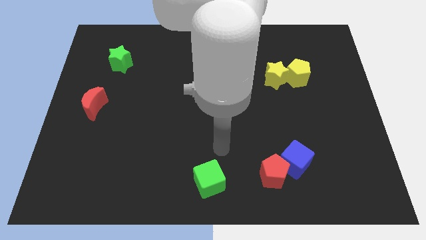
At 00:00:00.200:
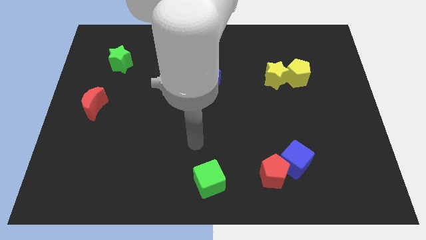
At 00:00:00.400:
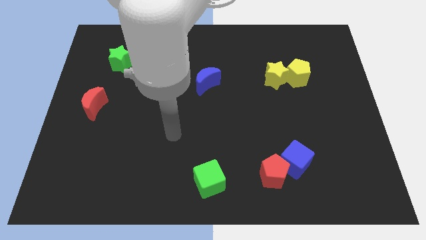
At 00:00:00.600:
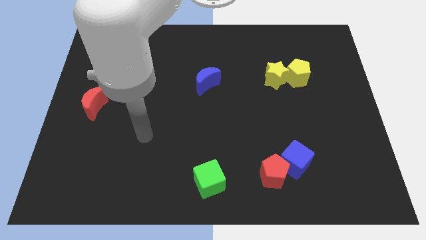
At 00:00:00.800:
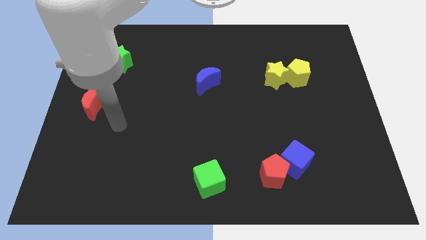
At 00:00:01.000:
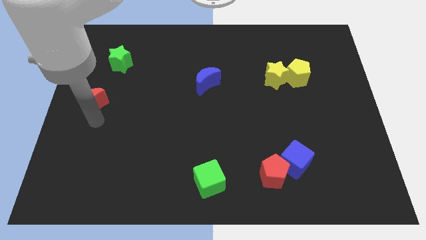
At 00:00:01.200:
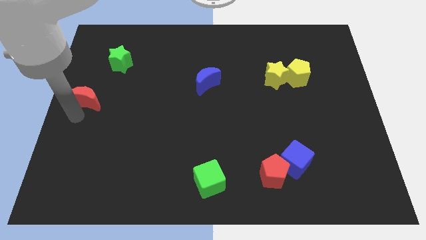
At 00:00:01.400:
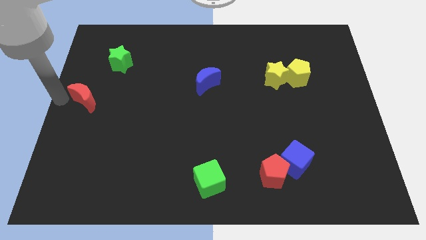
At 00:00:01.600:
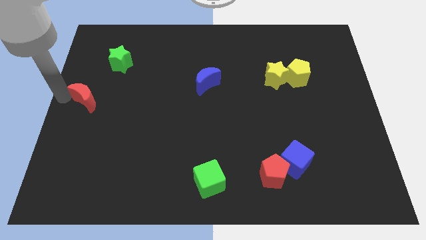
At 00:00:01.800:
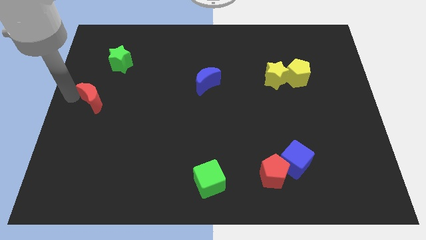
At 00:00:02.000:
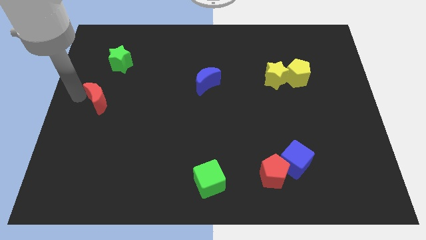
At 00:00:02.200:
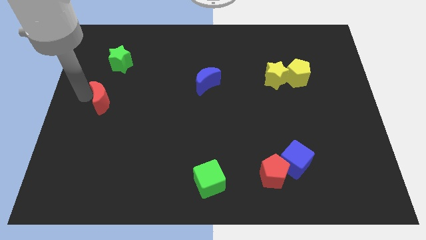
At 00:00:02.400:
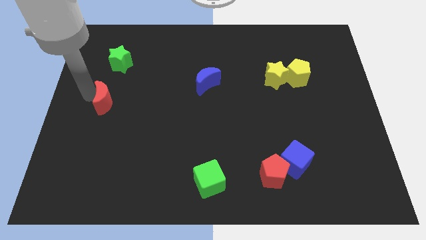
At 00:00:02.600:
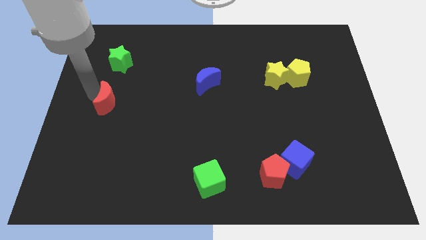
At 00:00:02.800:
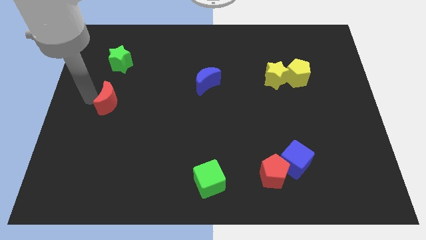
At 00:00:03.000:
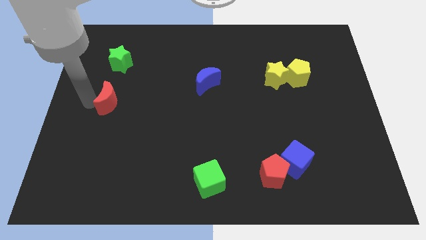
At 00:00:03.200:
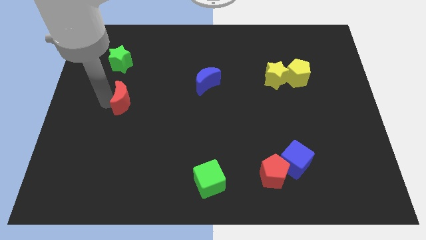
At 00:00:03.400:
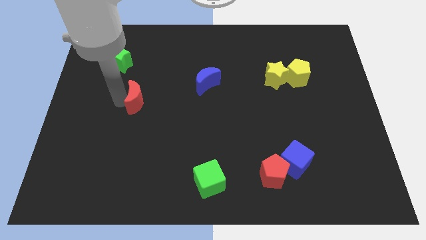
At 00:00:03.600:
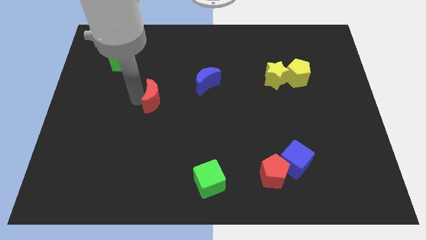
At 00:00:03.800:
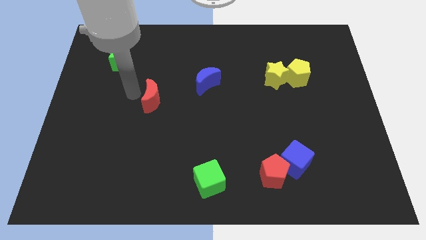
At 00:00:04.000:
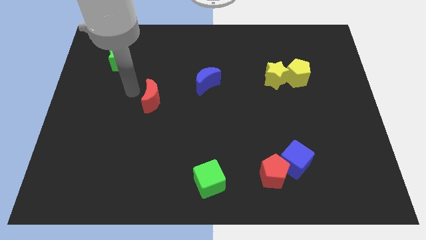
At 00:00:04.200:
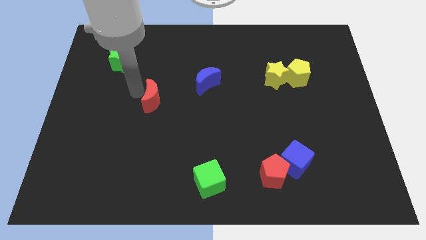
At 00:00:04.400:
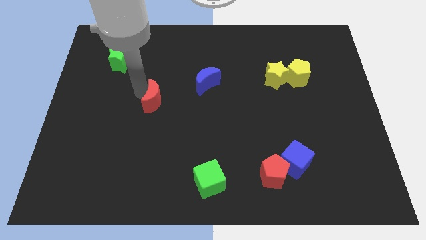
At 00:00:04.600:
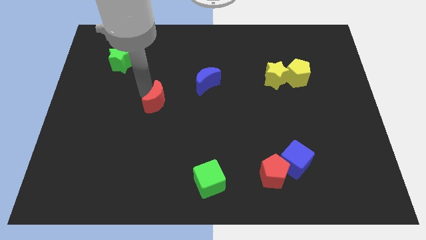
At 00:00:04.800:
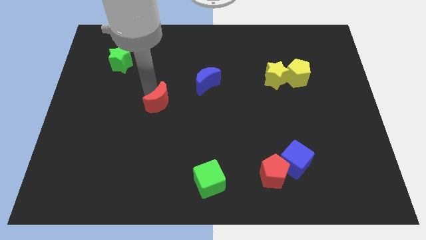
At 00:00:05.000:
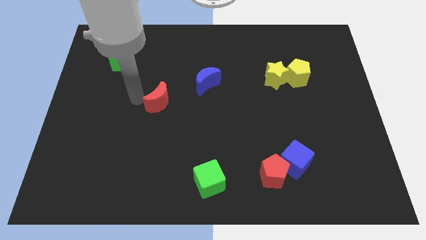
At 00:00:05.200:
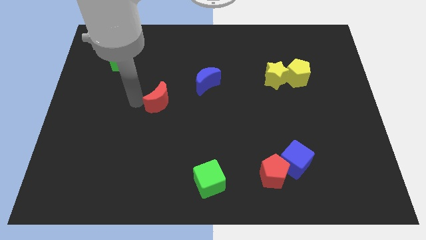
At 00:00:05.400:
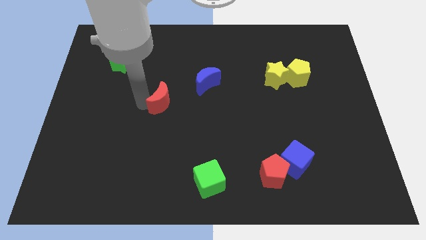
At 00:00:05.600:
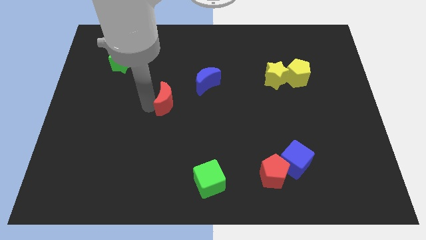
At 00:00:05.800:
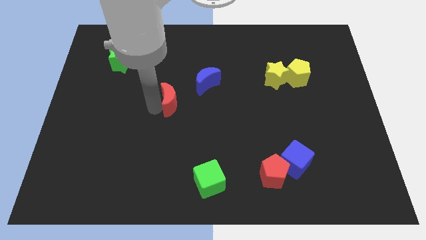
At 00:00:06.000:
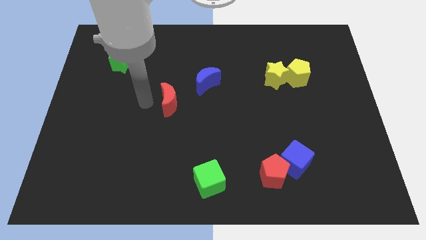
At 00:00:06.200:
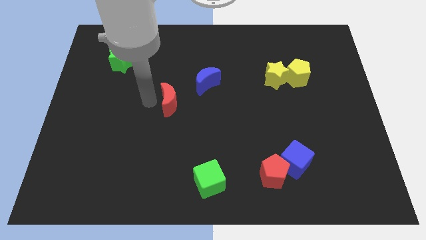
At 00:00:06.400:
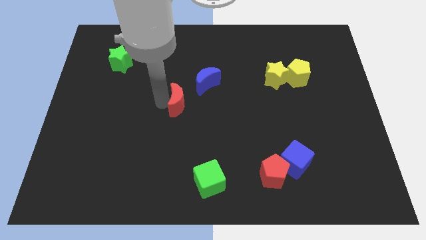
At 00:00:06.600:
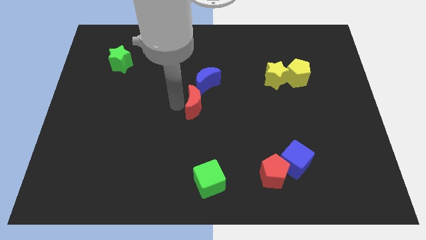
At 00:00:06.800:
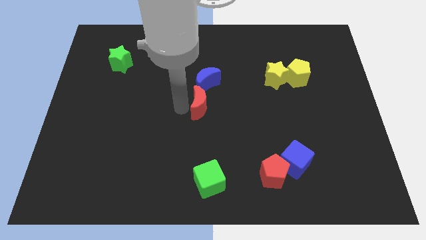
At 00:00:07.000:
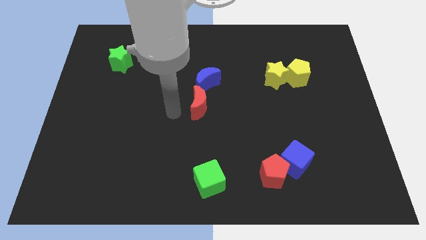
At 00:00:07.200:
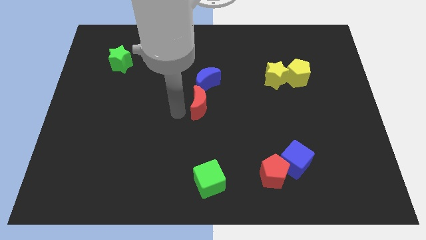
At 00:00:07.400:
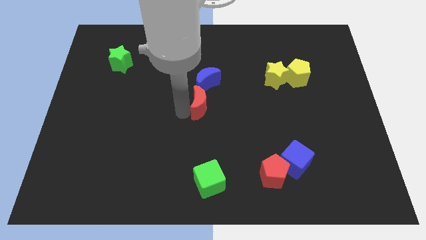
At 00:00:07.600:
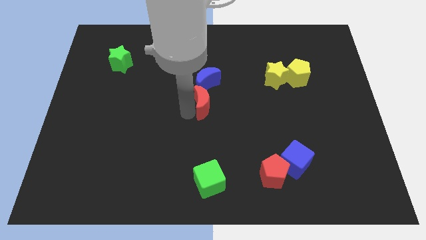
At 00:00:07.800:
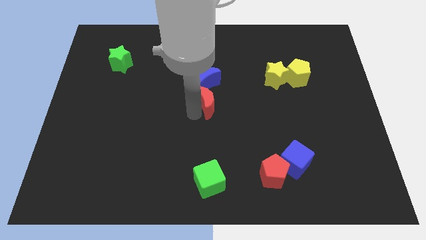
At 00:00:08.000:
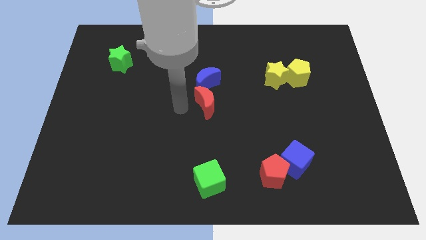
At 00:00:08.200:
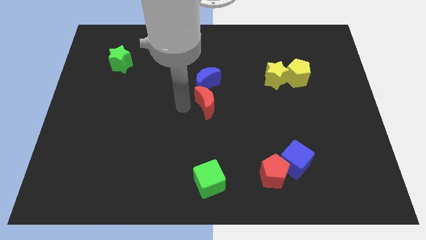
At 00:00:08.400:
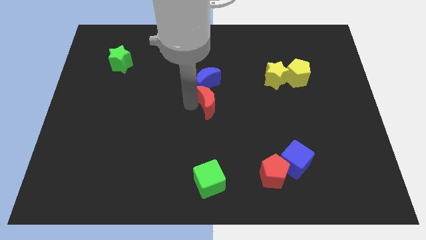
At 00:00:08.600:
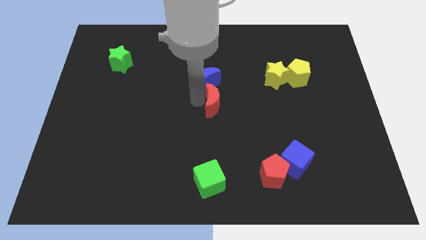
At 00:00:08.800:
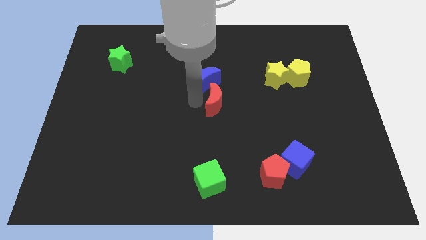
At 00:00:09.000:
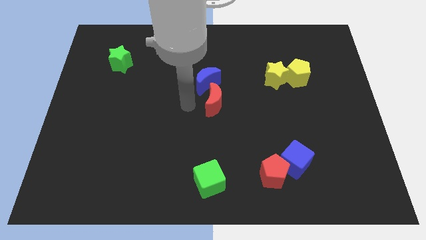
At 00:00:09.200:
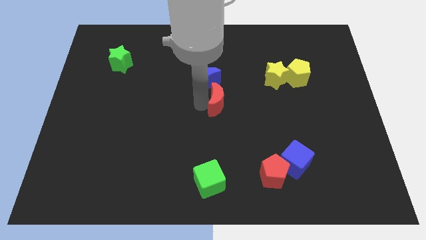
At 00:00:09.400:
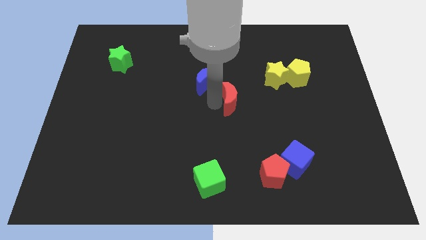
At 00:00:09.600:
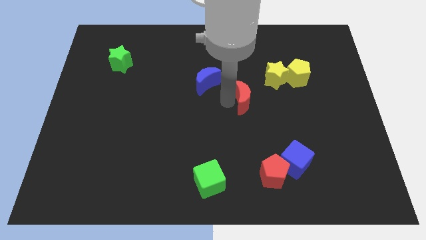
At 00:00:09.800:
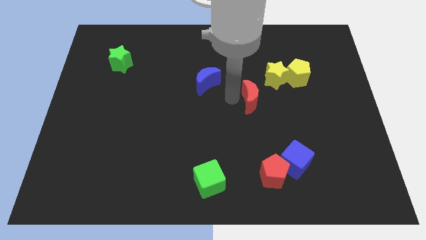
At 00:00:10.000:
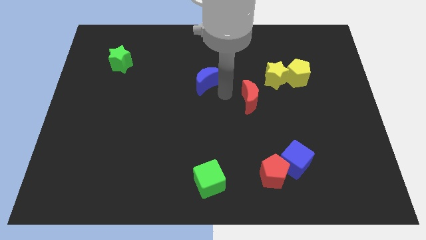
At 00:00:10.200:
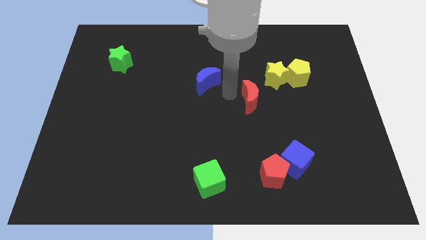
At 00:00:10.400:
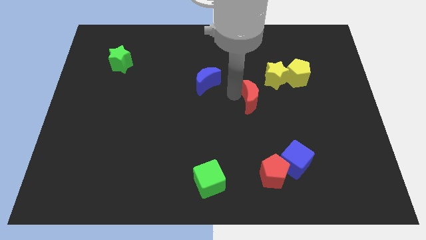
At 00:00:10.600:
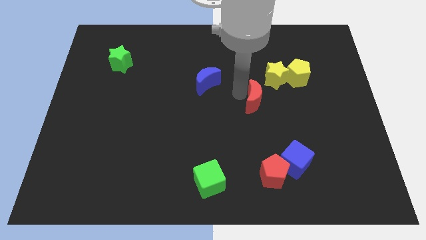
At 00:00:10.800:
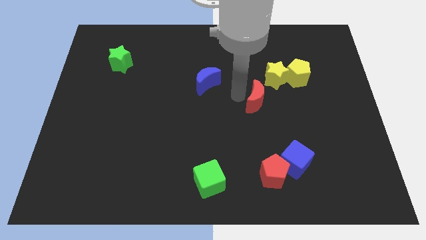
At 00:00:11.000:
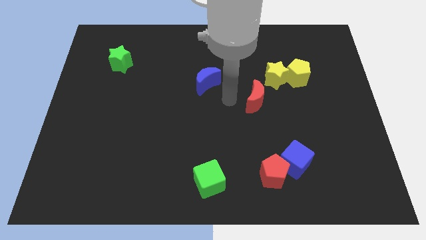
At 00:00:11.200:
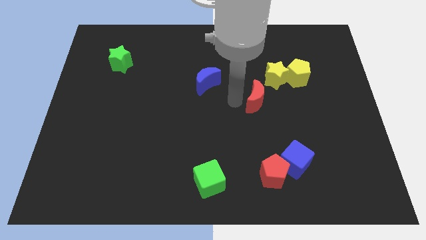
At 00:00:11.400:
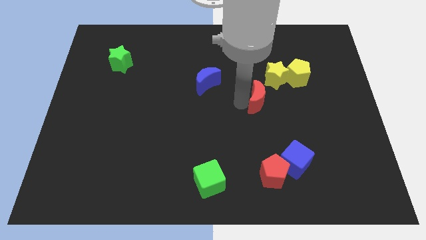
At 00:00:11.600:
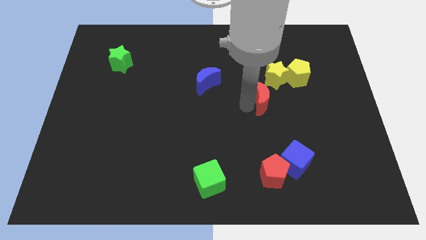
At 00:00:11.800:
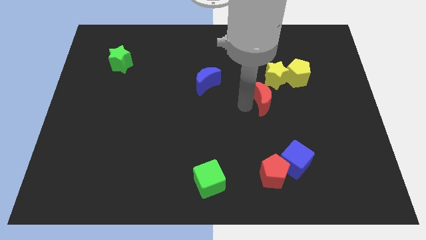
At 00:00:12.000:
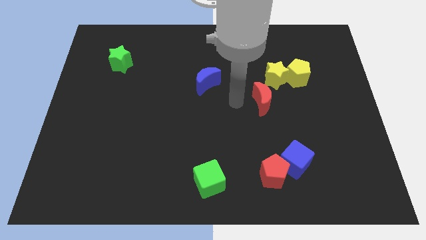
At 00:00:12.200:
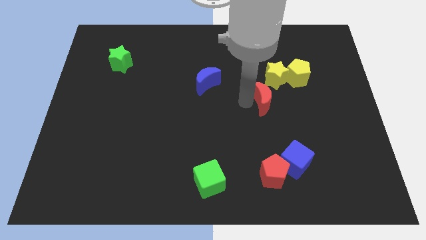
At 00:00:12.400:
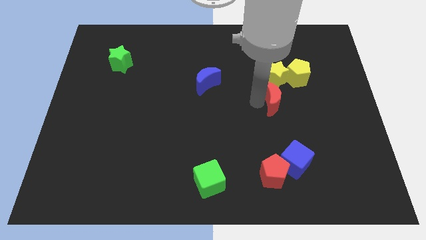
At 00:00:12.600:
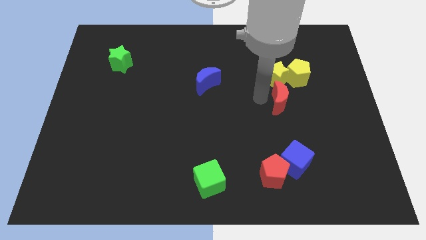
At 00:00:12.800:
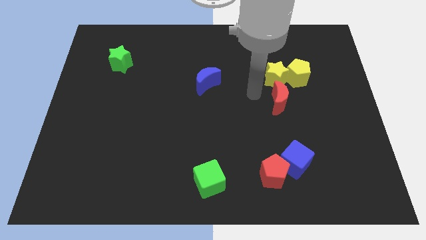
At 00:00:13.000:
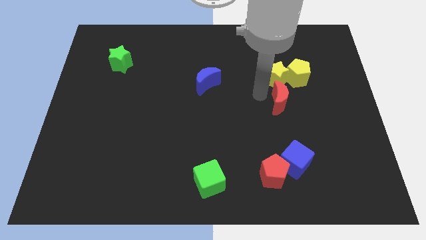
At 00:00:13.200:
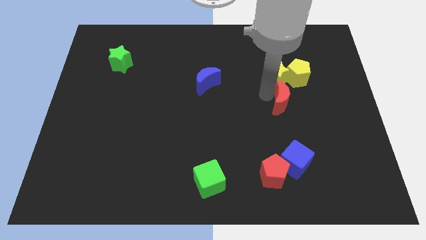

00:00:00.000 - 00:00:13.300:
put the red moon to the bottom side of the yellow pentagon

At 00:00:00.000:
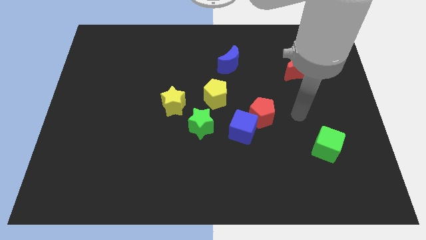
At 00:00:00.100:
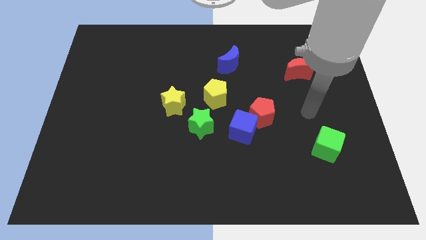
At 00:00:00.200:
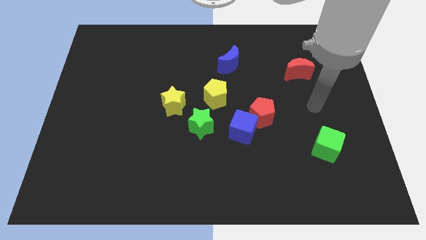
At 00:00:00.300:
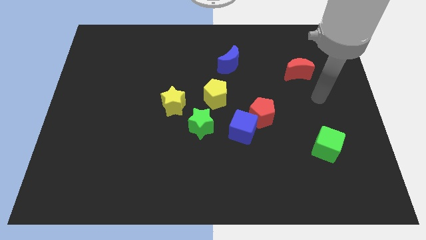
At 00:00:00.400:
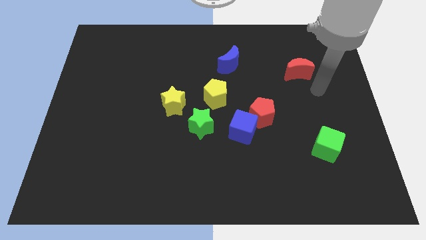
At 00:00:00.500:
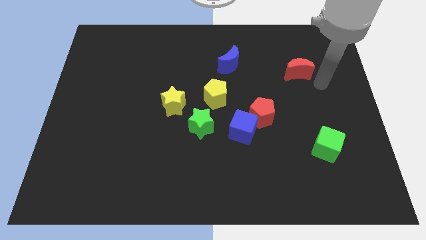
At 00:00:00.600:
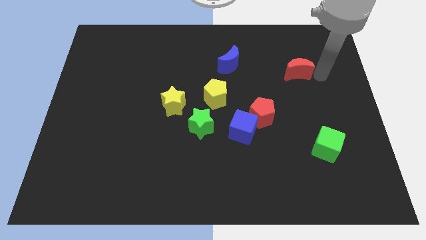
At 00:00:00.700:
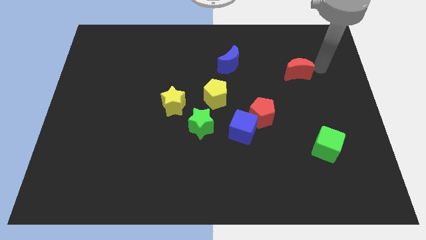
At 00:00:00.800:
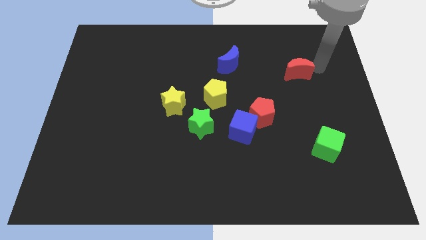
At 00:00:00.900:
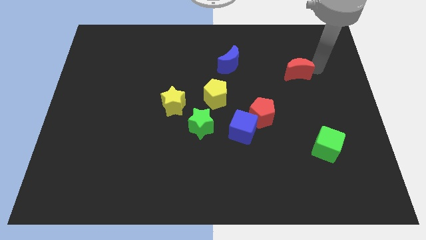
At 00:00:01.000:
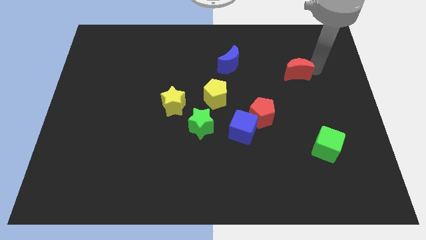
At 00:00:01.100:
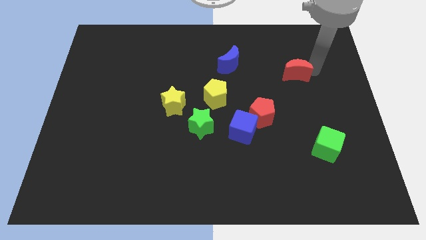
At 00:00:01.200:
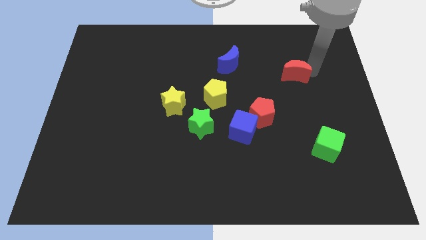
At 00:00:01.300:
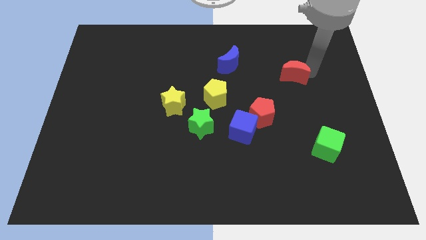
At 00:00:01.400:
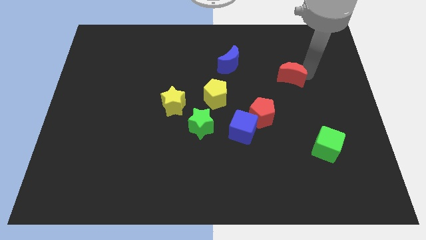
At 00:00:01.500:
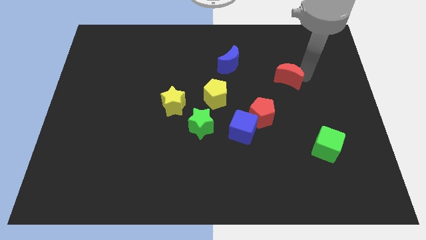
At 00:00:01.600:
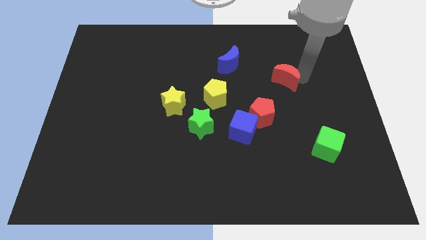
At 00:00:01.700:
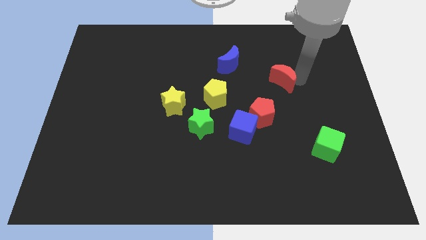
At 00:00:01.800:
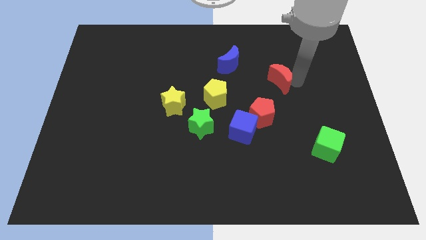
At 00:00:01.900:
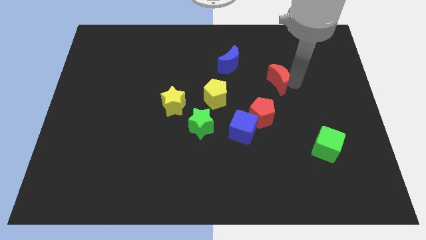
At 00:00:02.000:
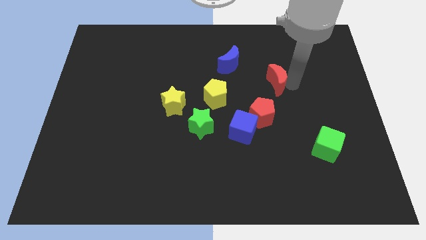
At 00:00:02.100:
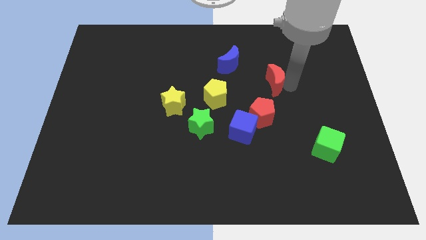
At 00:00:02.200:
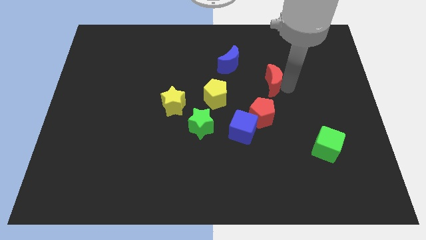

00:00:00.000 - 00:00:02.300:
push the red moon to the bottom right side of the blue moon
